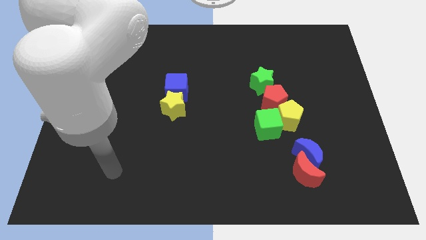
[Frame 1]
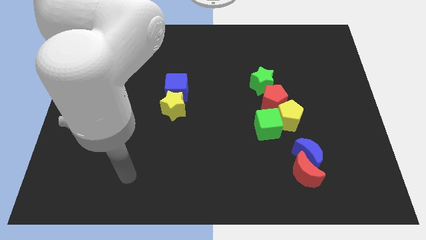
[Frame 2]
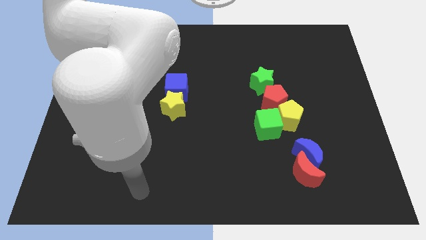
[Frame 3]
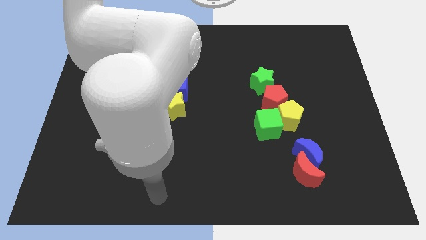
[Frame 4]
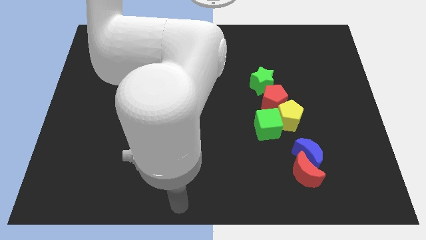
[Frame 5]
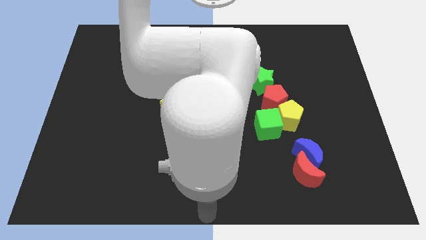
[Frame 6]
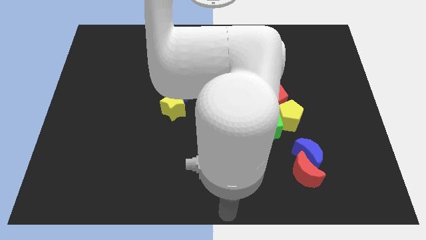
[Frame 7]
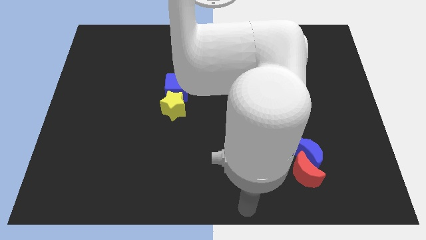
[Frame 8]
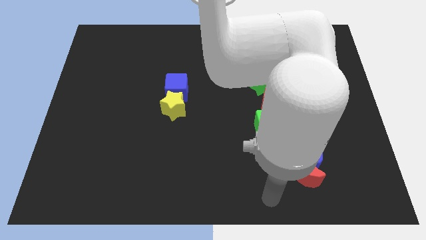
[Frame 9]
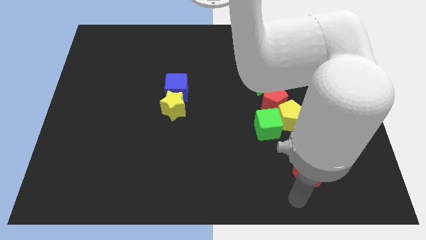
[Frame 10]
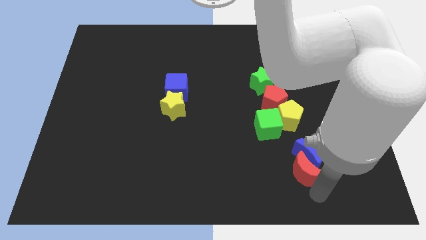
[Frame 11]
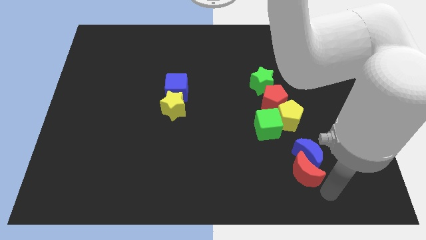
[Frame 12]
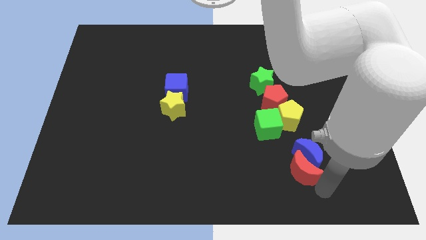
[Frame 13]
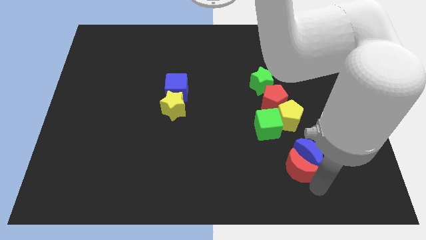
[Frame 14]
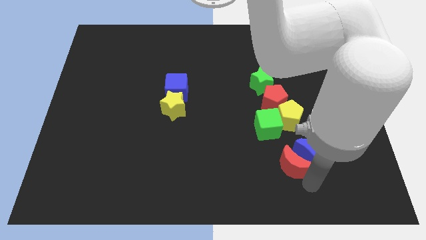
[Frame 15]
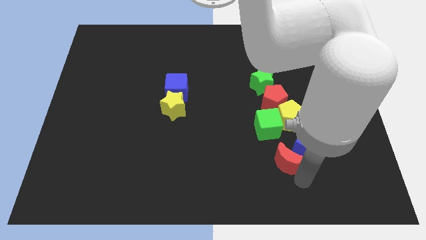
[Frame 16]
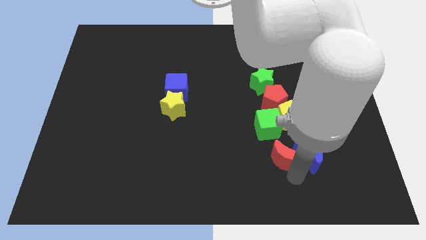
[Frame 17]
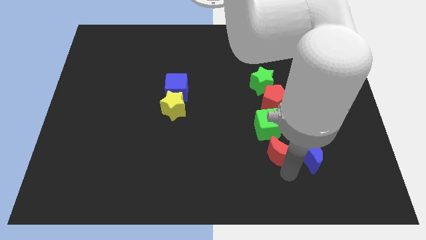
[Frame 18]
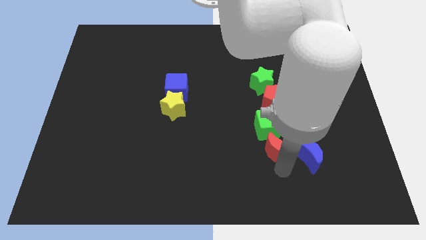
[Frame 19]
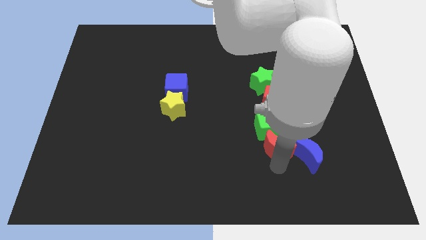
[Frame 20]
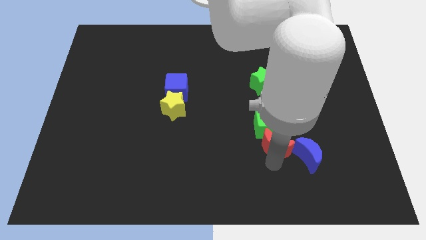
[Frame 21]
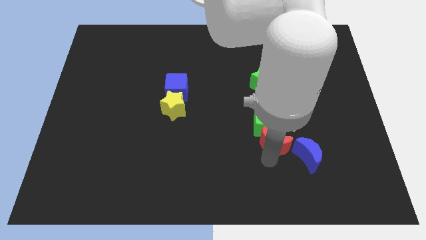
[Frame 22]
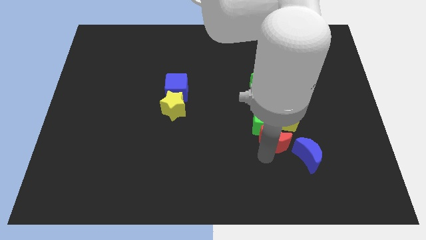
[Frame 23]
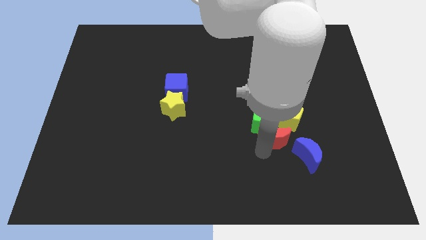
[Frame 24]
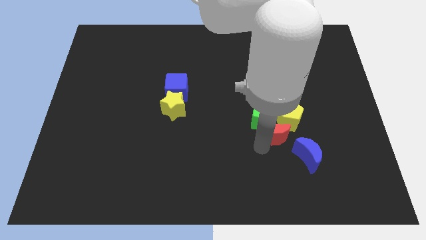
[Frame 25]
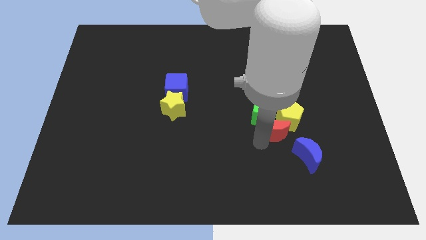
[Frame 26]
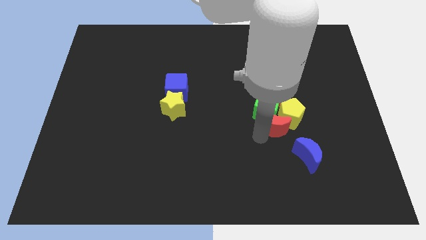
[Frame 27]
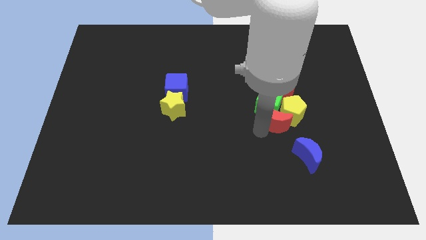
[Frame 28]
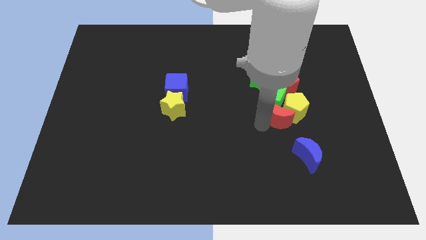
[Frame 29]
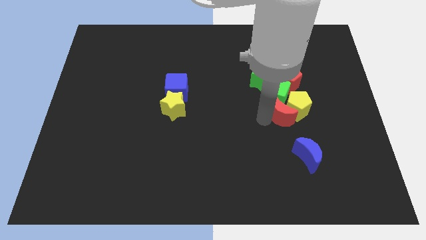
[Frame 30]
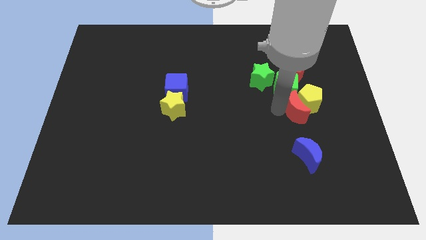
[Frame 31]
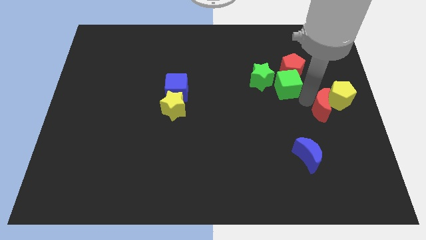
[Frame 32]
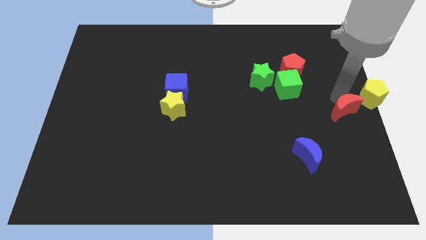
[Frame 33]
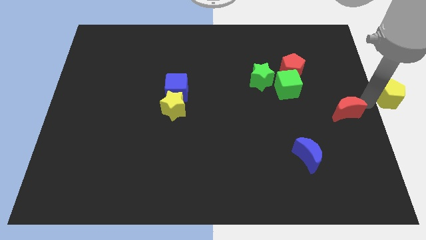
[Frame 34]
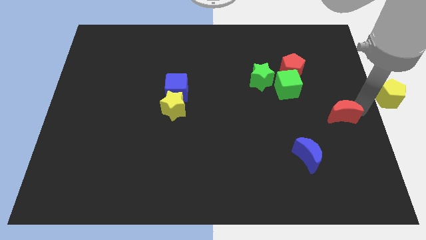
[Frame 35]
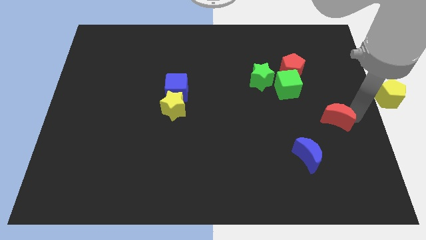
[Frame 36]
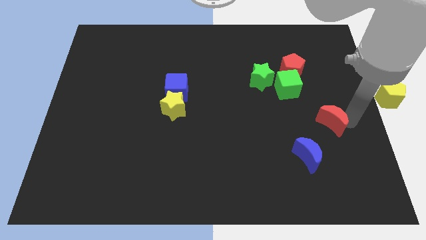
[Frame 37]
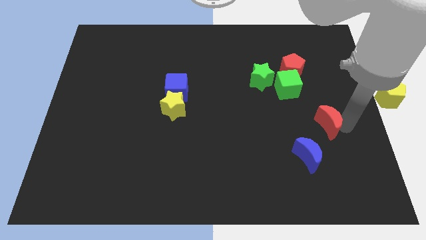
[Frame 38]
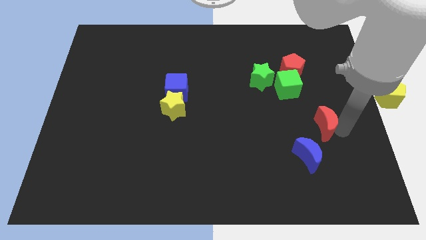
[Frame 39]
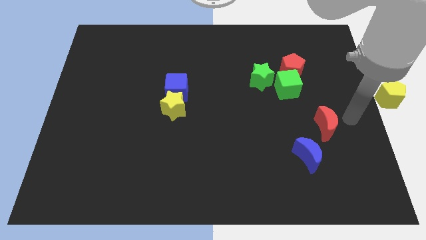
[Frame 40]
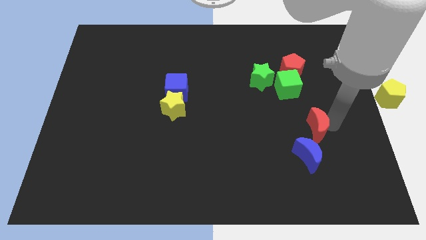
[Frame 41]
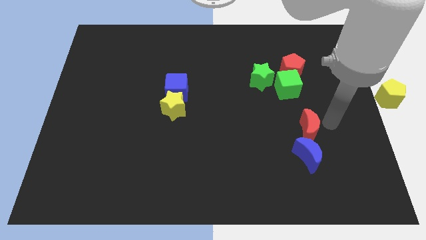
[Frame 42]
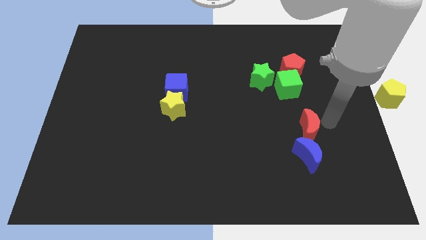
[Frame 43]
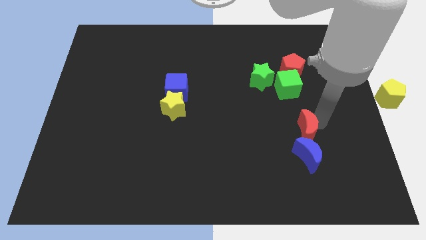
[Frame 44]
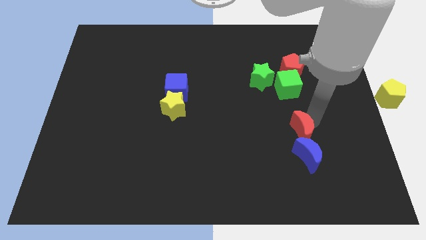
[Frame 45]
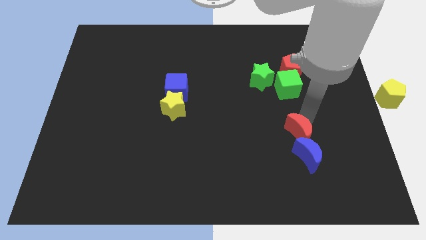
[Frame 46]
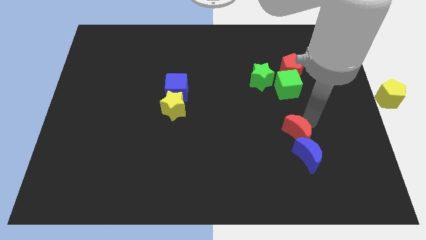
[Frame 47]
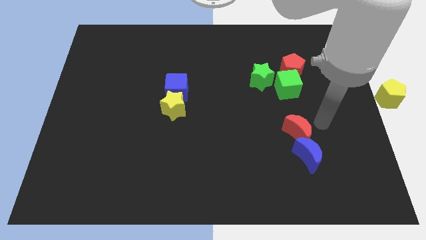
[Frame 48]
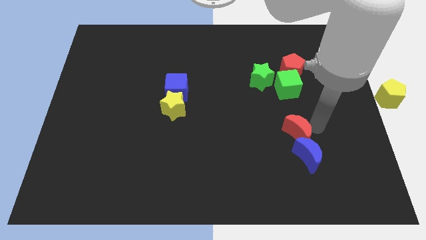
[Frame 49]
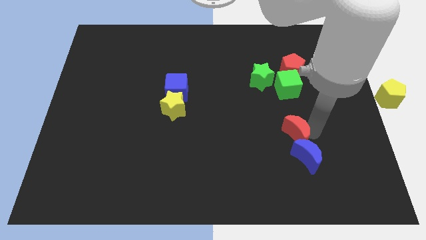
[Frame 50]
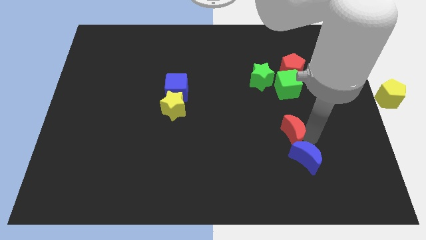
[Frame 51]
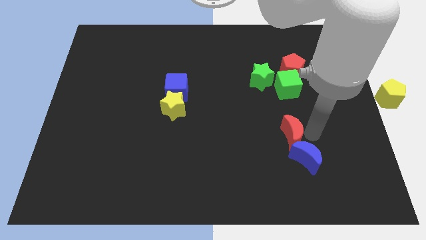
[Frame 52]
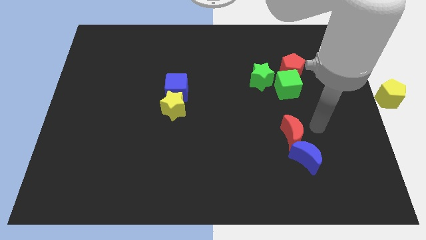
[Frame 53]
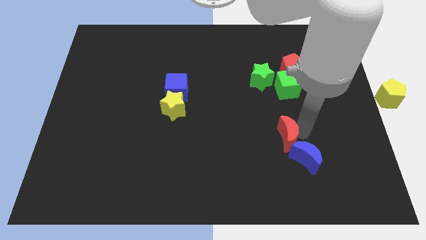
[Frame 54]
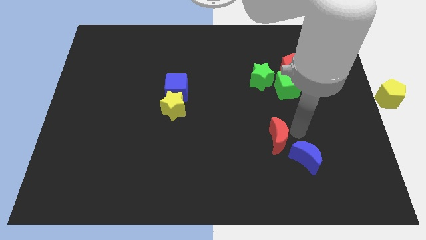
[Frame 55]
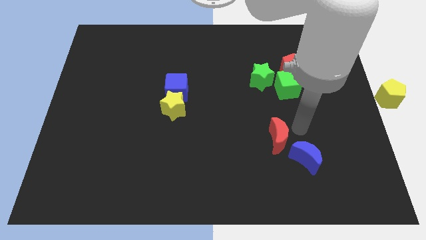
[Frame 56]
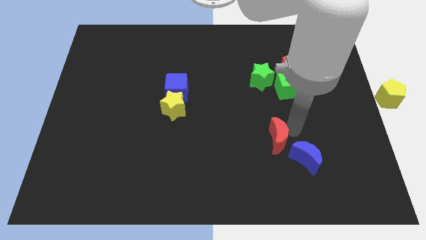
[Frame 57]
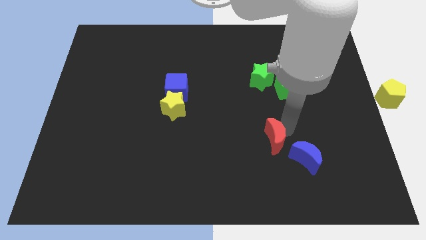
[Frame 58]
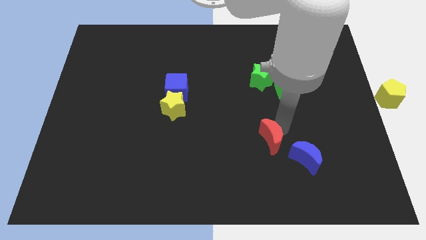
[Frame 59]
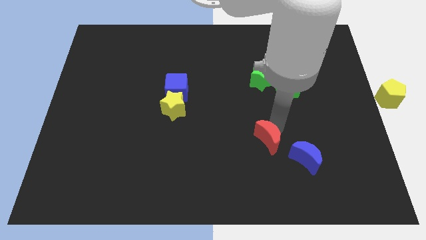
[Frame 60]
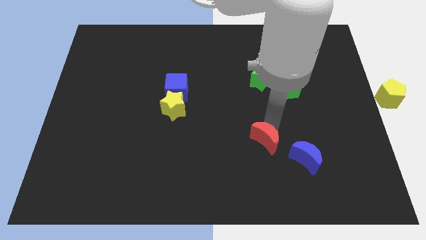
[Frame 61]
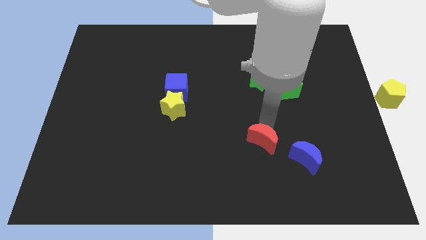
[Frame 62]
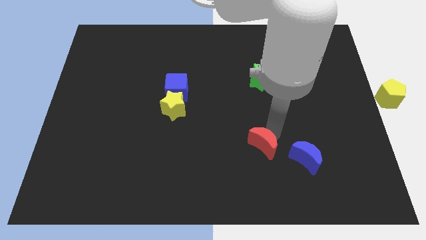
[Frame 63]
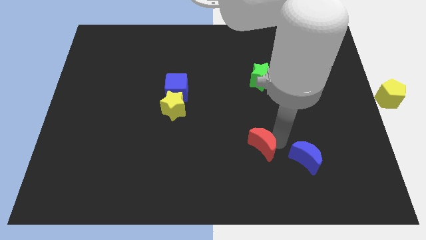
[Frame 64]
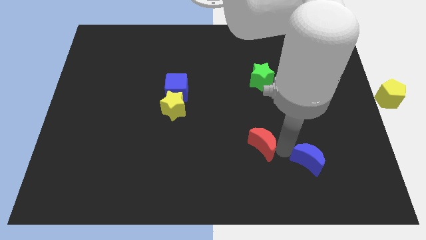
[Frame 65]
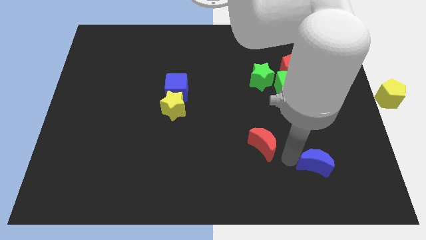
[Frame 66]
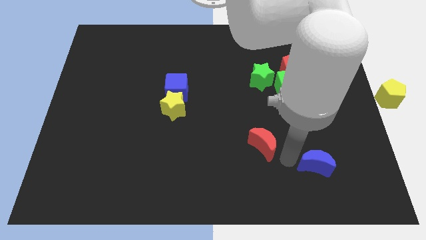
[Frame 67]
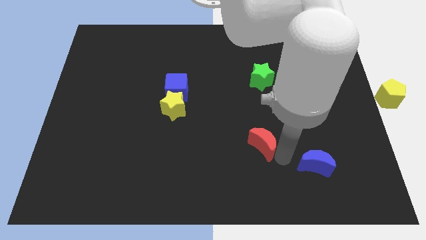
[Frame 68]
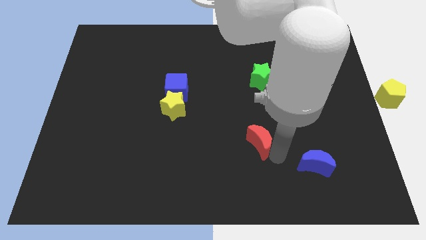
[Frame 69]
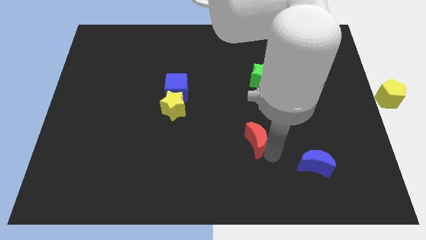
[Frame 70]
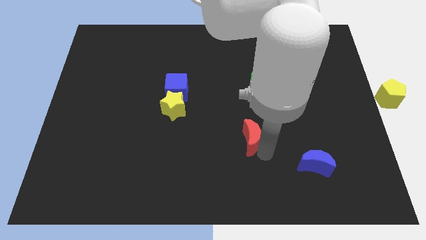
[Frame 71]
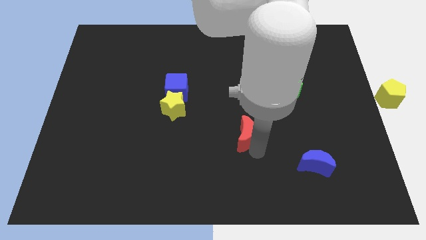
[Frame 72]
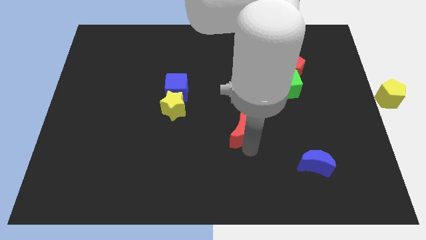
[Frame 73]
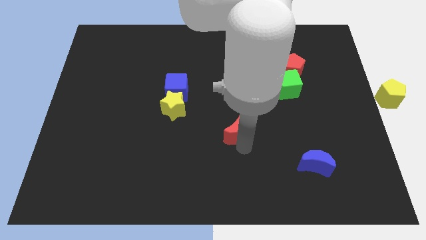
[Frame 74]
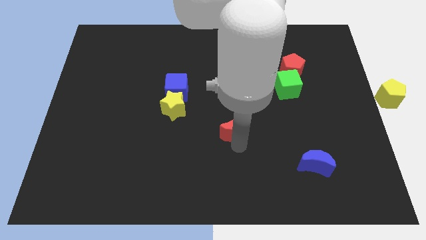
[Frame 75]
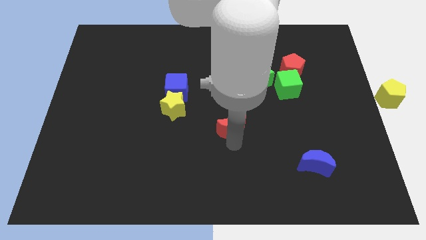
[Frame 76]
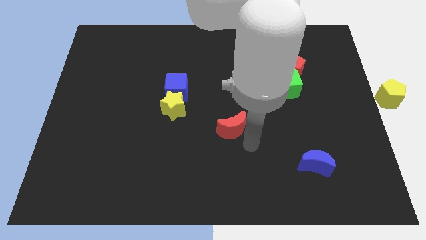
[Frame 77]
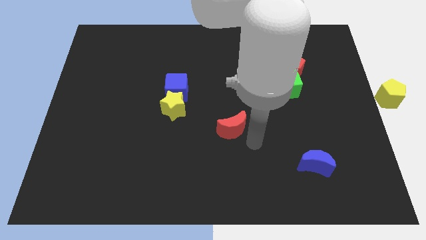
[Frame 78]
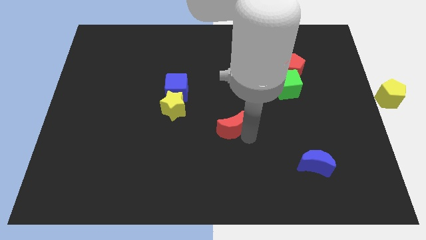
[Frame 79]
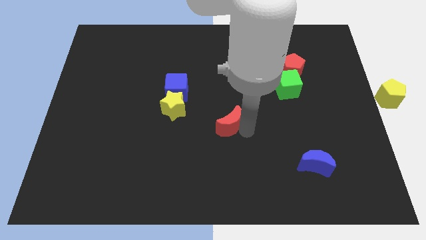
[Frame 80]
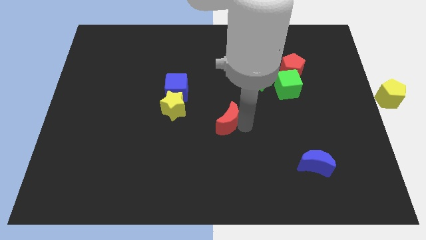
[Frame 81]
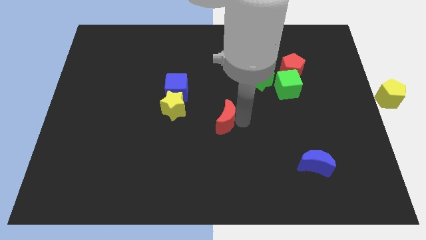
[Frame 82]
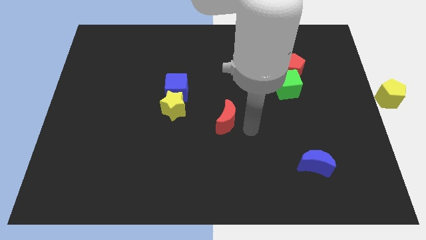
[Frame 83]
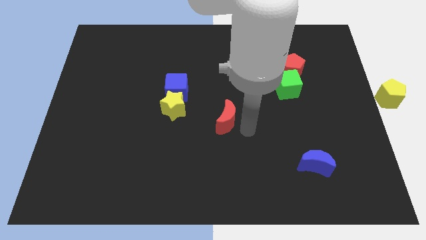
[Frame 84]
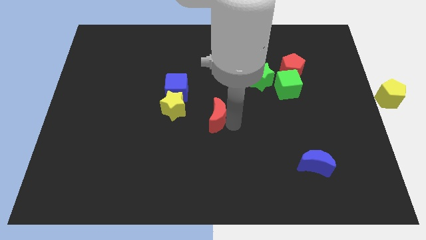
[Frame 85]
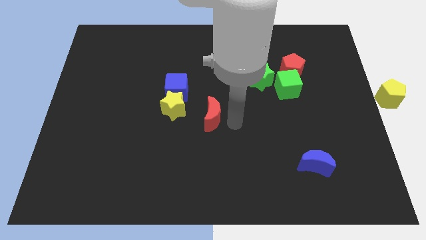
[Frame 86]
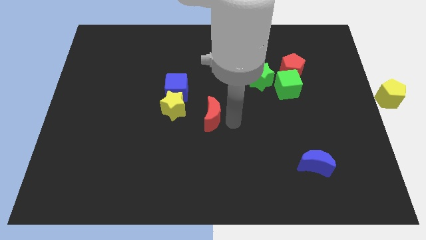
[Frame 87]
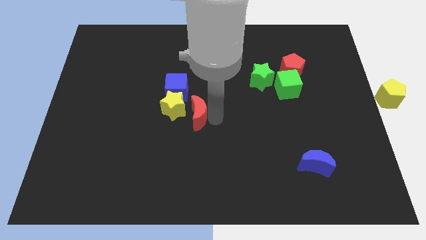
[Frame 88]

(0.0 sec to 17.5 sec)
slide the red moon close to the yellow star
